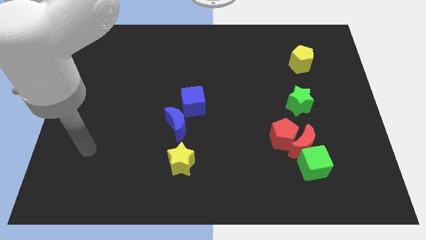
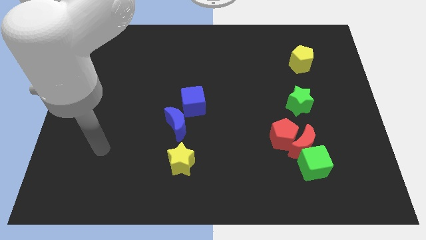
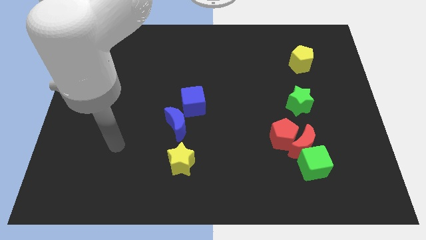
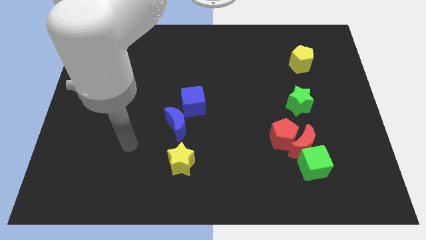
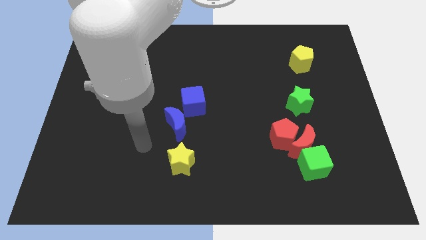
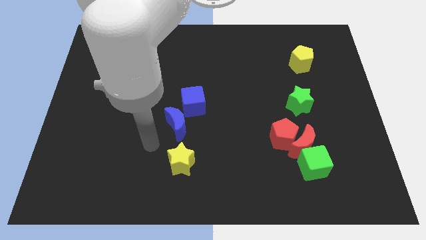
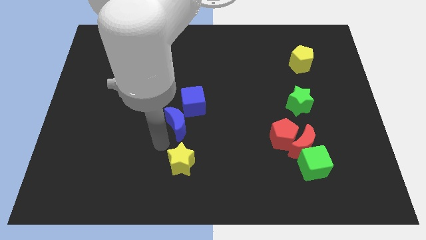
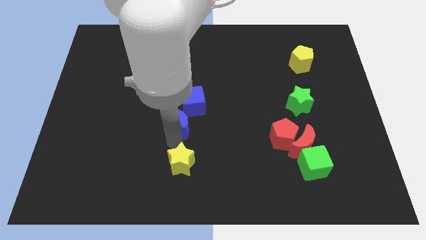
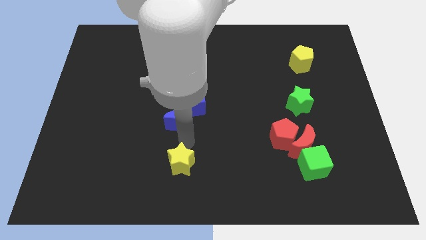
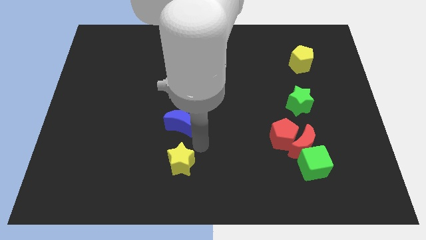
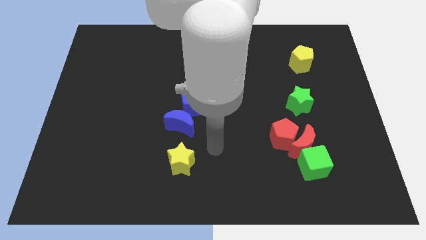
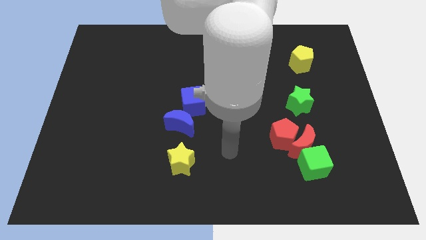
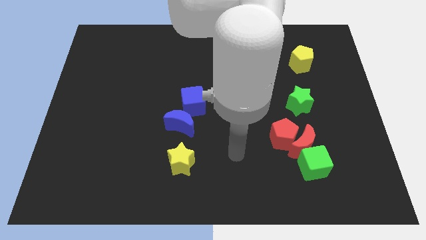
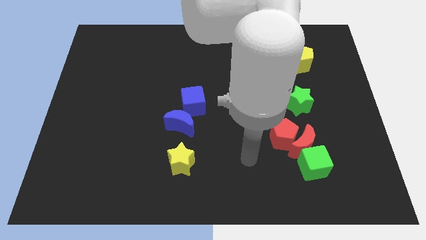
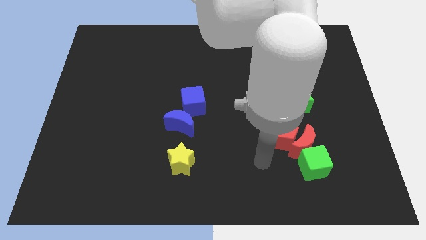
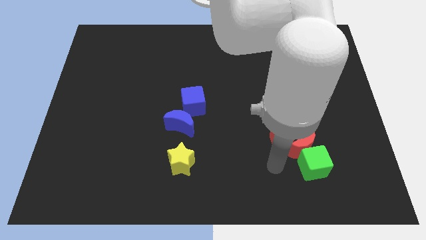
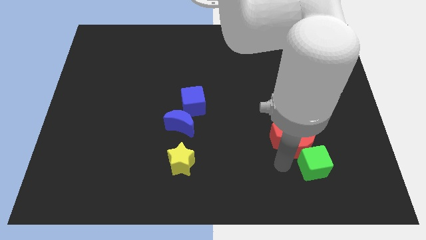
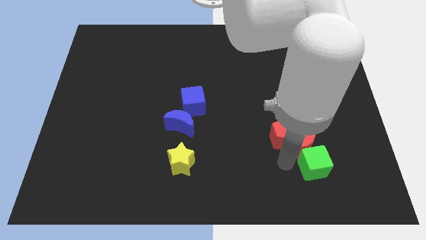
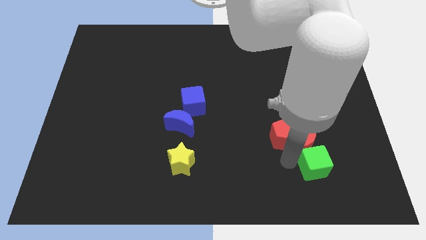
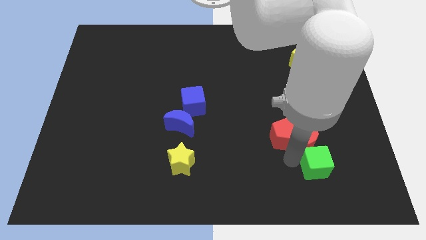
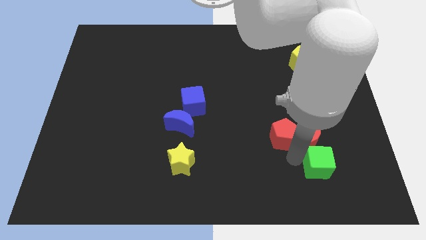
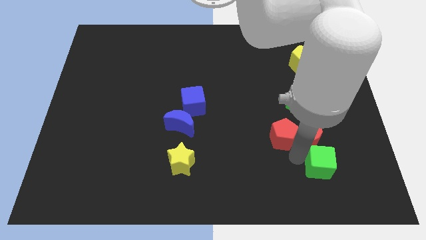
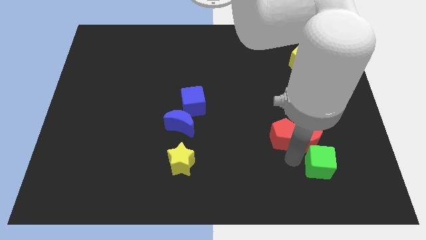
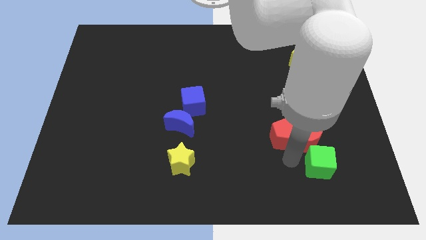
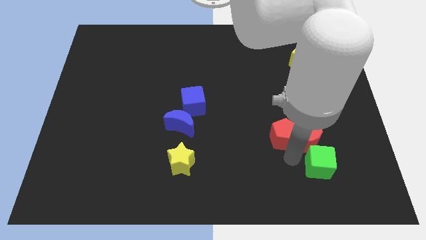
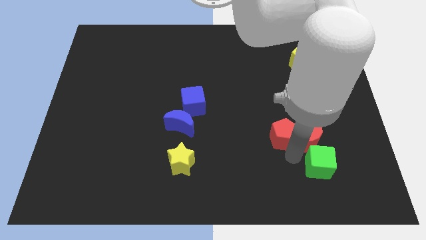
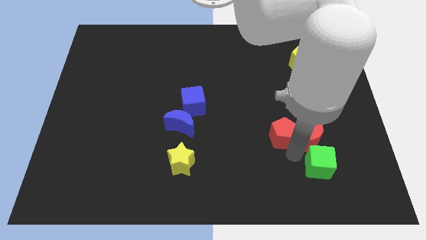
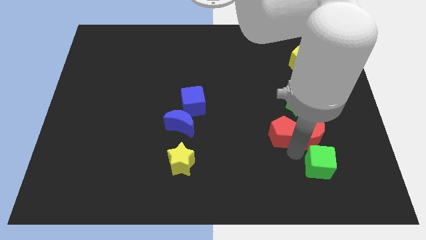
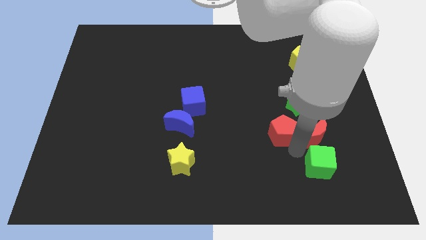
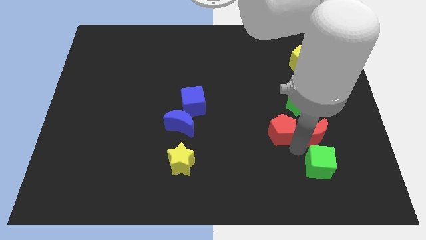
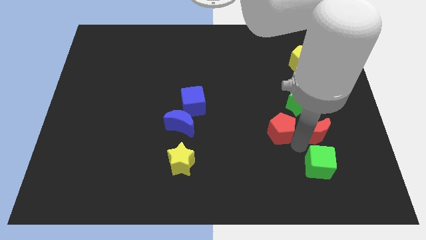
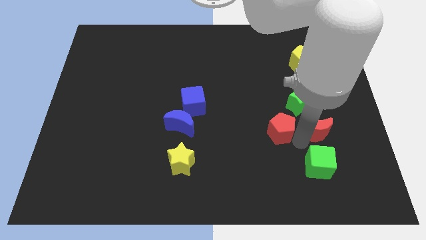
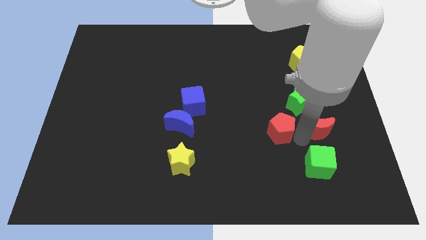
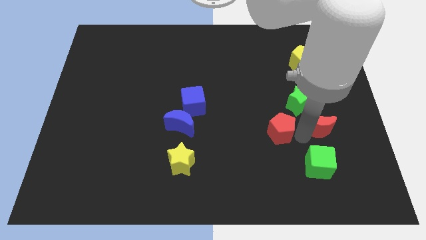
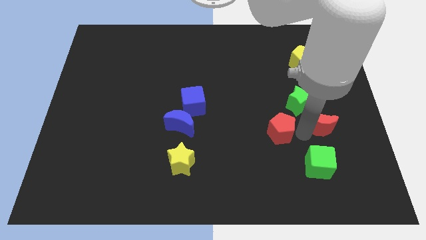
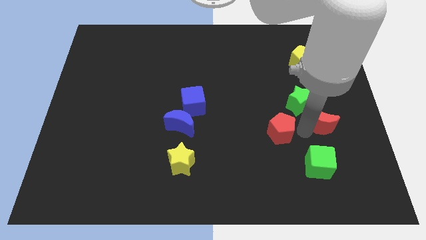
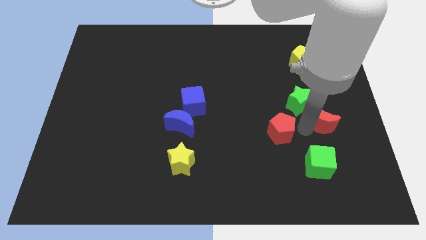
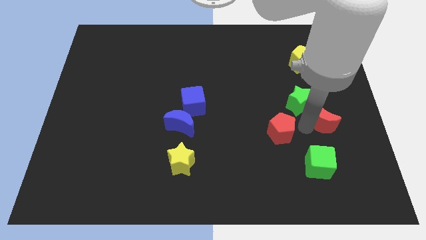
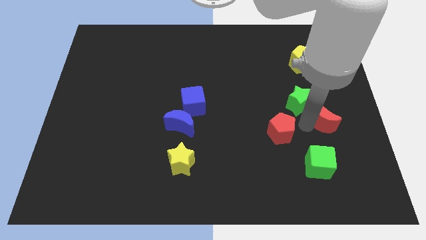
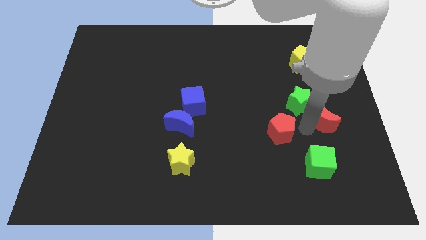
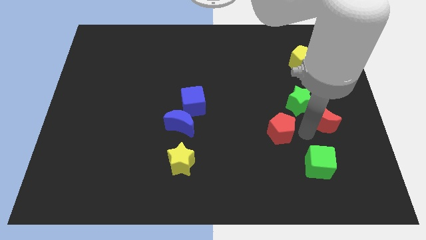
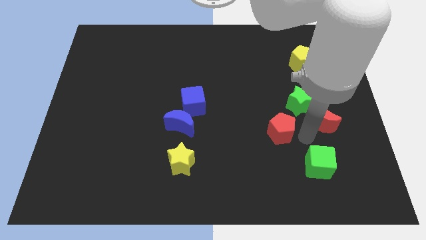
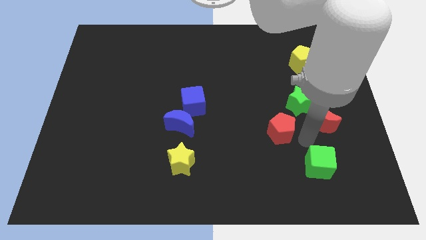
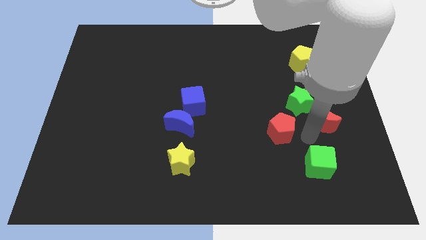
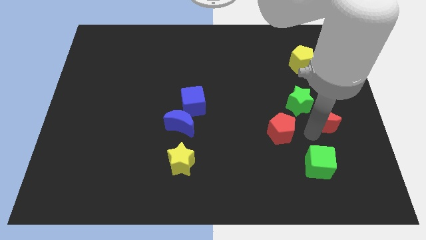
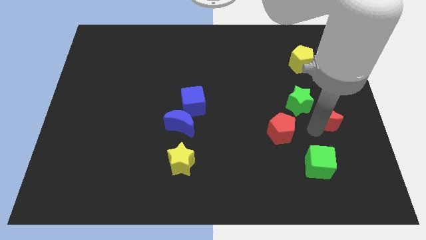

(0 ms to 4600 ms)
move the red moon away from the red pentagon and green cube

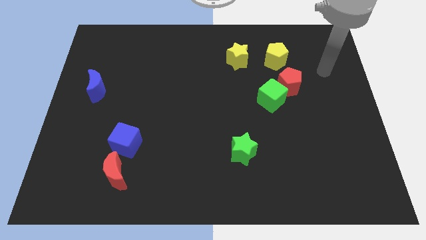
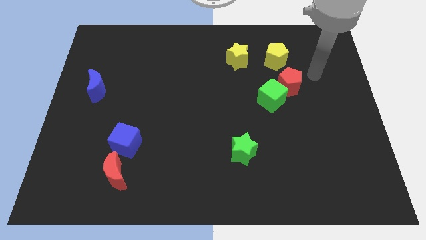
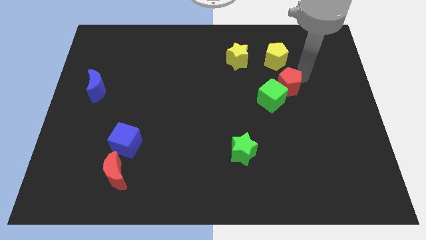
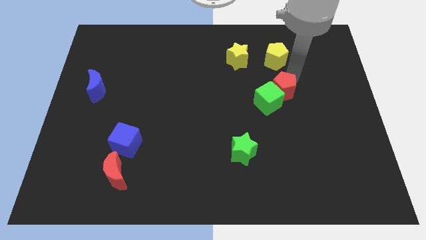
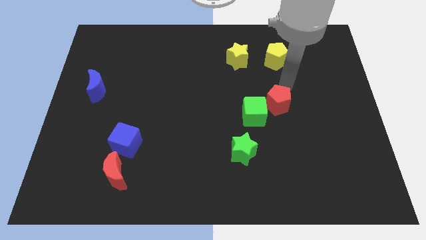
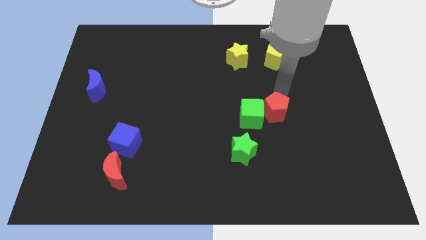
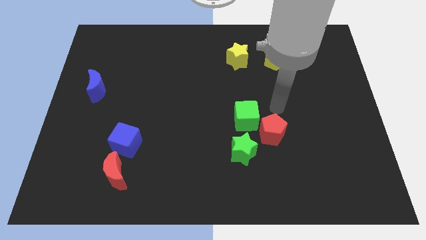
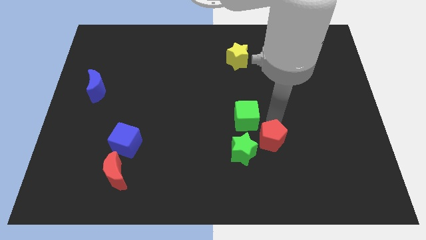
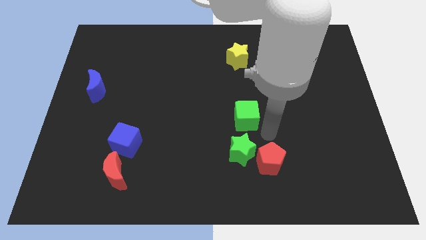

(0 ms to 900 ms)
move the green cube away from the red pentagon

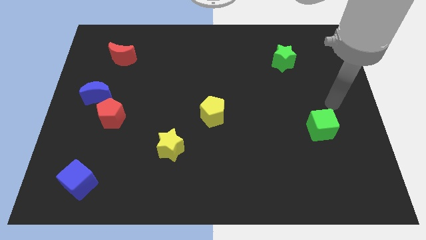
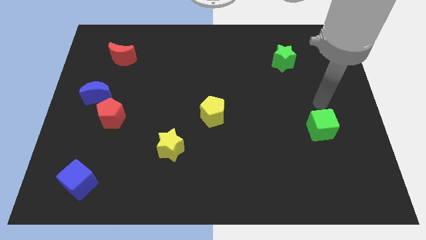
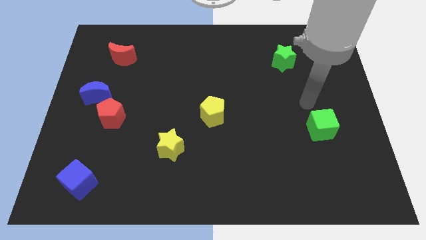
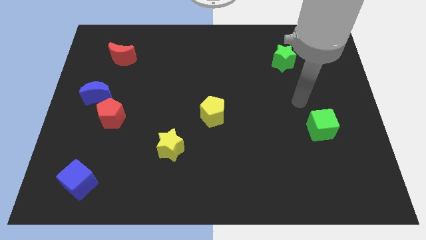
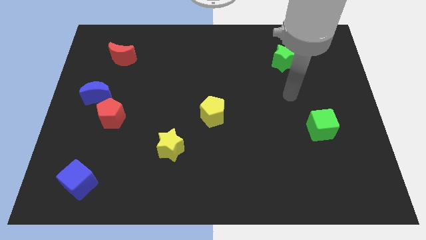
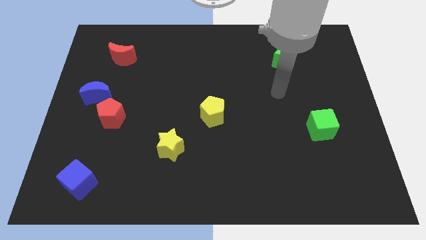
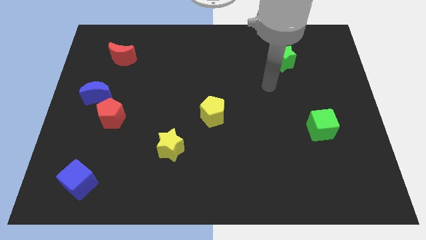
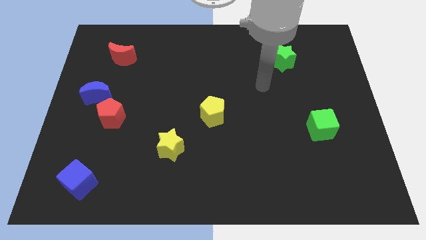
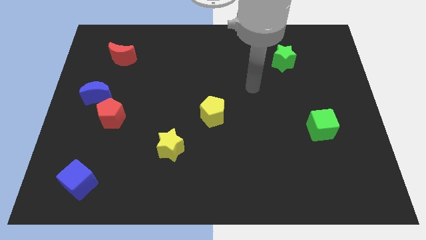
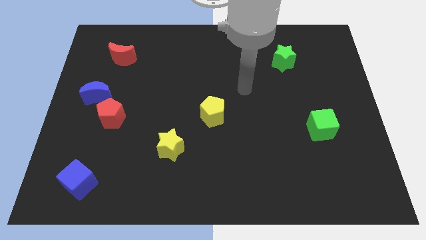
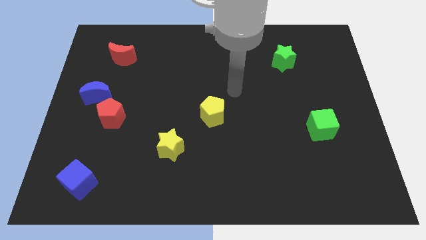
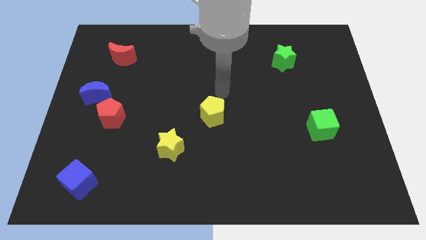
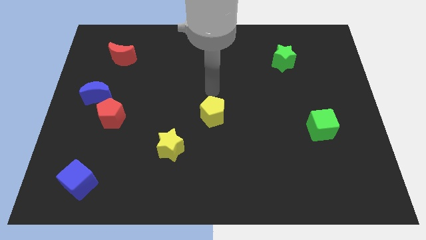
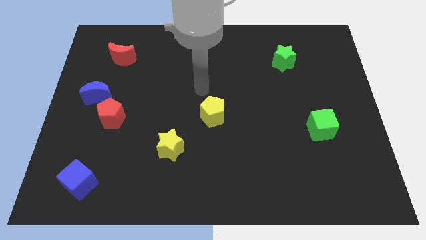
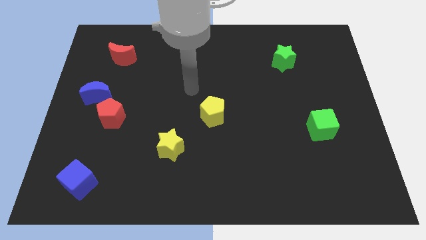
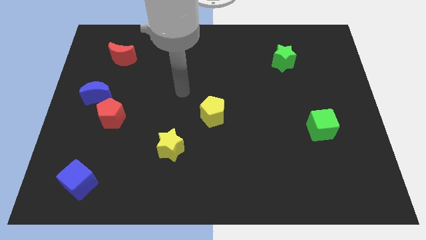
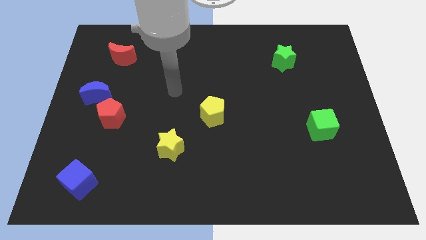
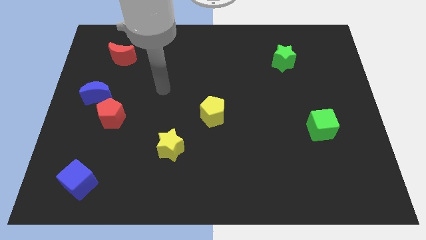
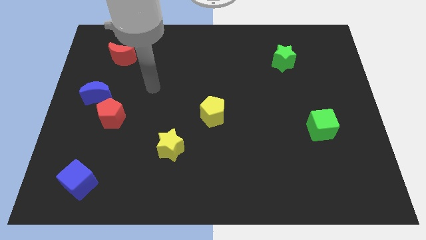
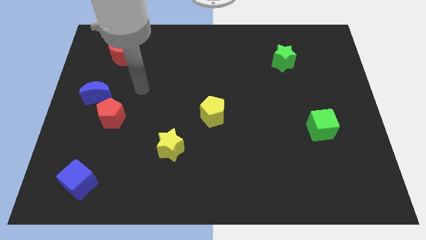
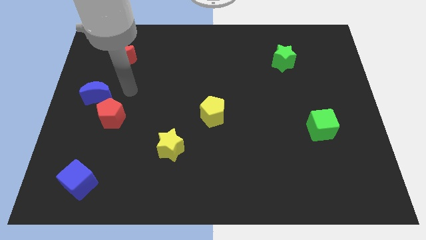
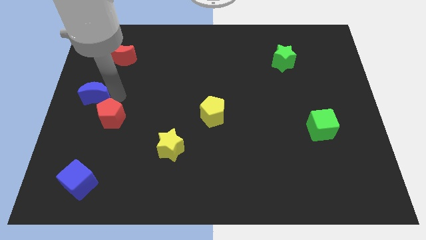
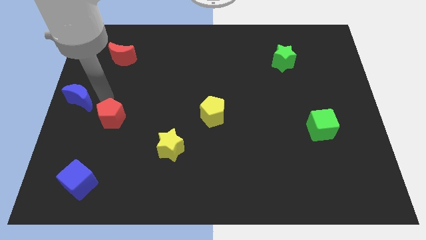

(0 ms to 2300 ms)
move the red pentagon away from the blue moon

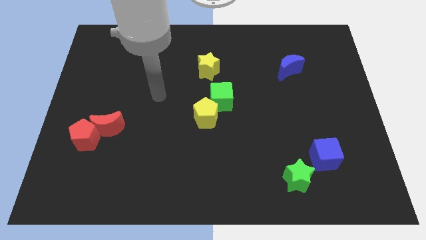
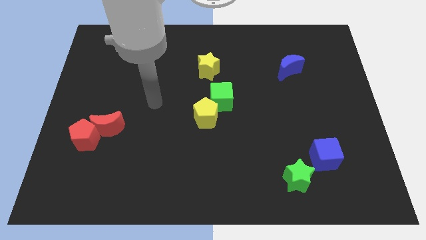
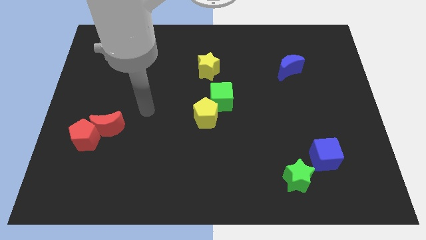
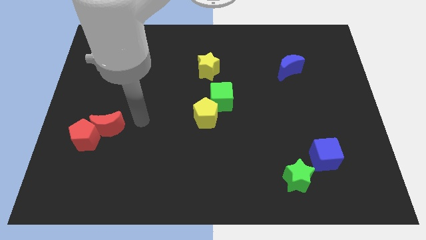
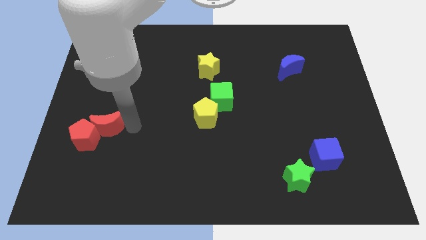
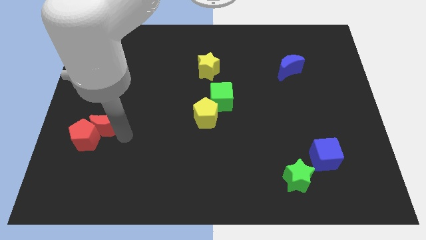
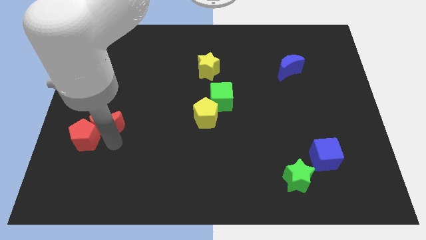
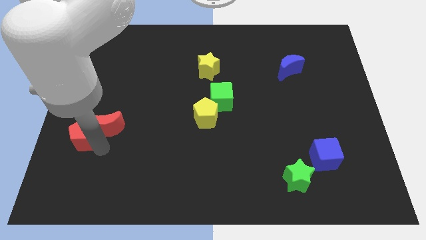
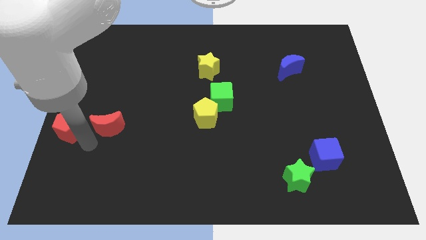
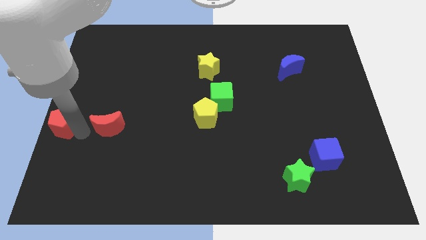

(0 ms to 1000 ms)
move the red moon away from the red pentagon

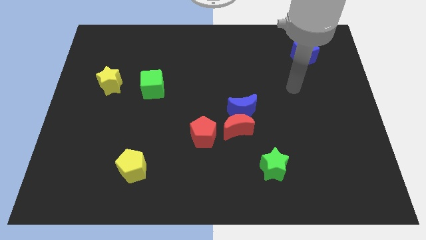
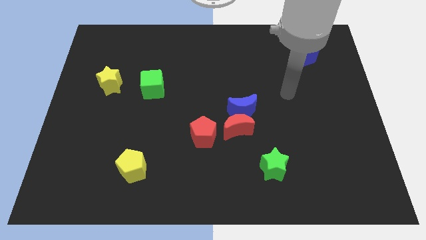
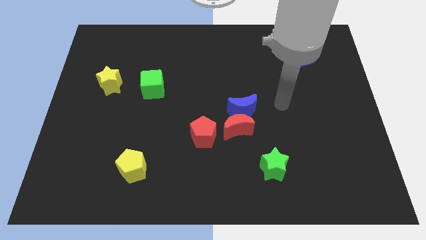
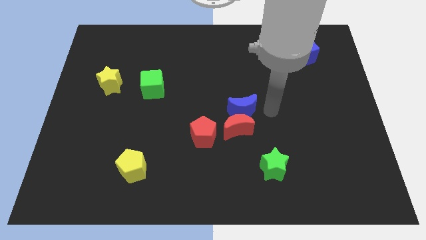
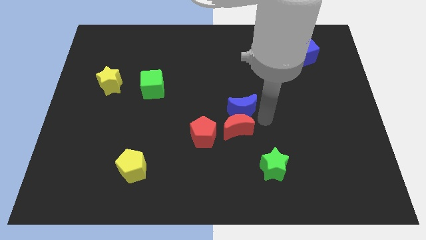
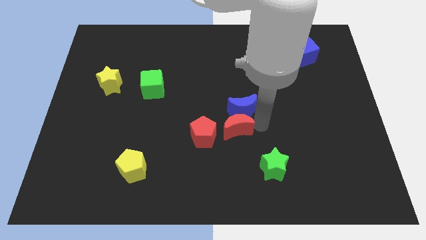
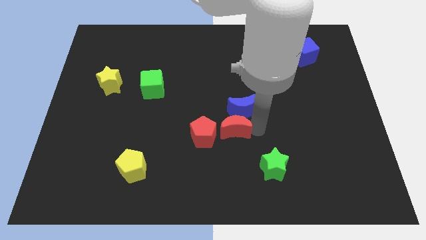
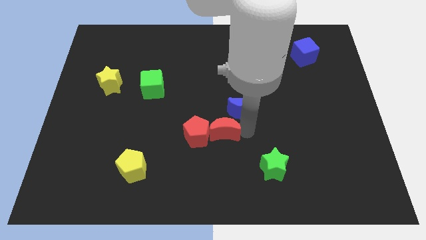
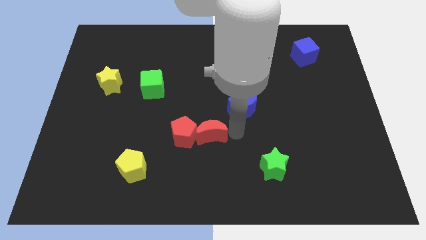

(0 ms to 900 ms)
move the blue moon away from the red moon
